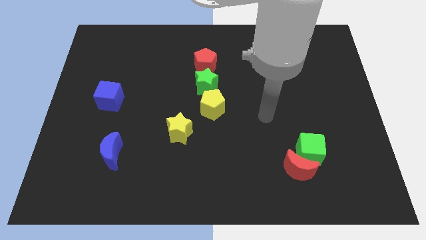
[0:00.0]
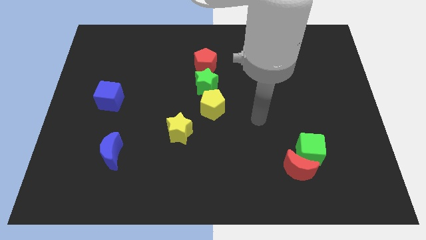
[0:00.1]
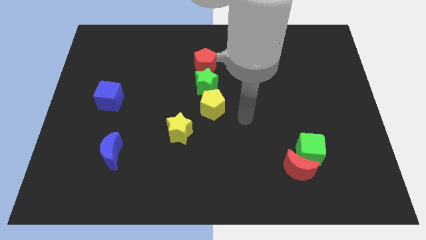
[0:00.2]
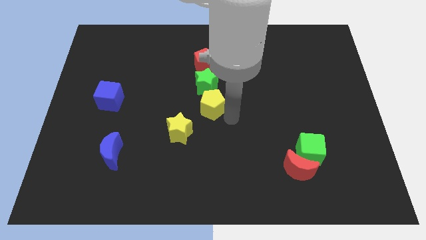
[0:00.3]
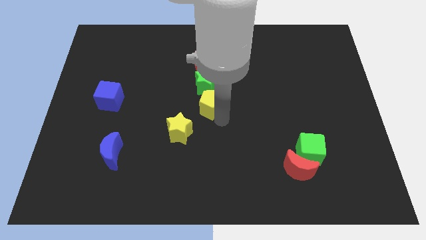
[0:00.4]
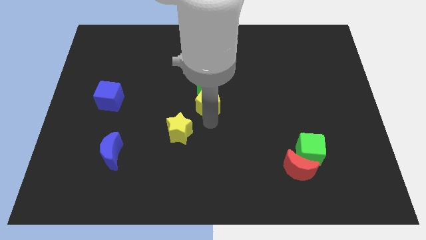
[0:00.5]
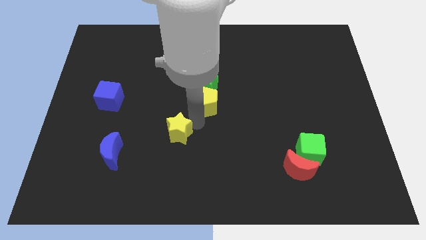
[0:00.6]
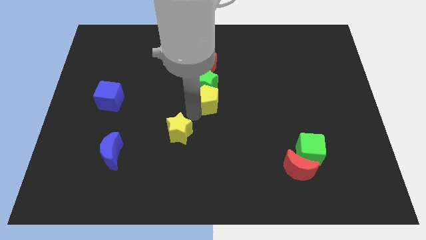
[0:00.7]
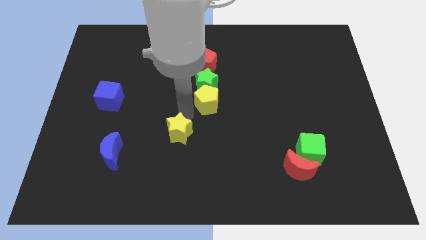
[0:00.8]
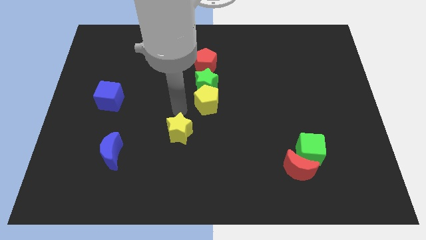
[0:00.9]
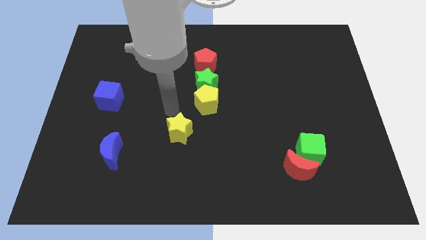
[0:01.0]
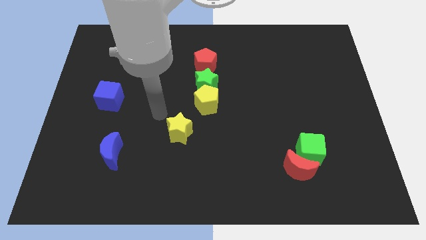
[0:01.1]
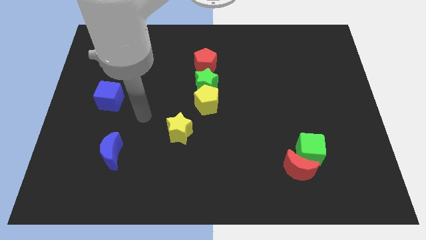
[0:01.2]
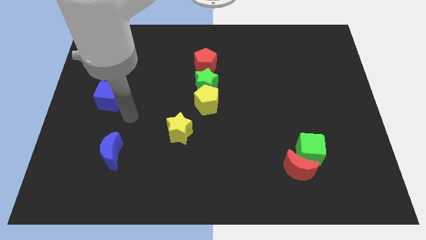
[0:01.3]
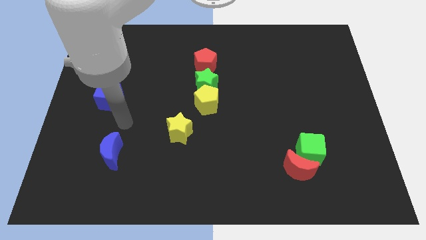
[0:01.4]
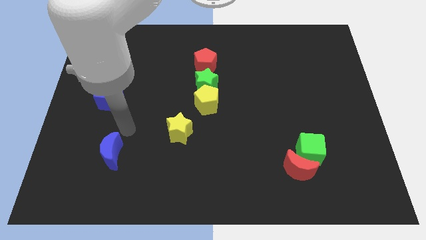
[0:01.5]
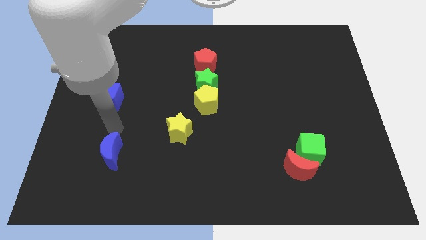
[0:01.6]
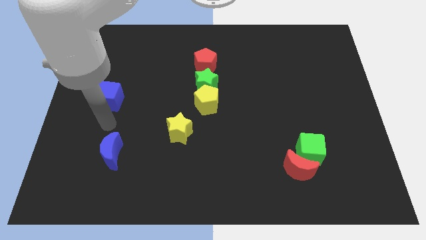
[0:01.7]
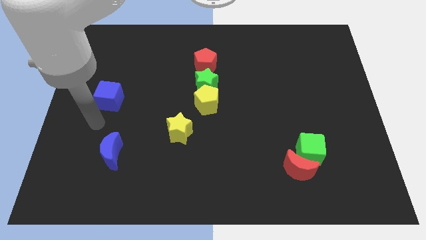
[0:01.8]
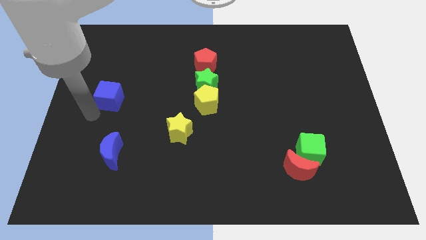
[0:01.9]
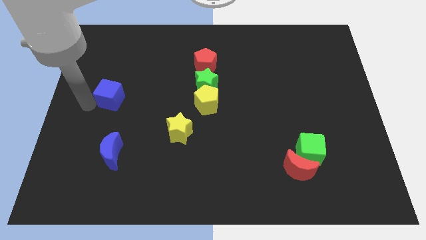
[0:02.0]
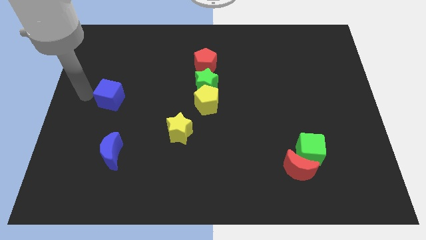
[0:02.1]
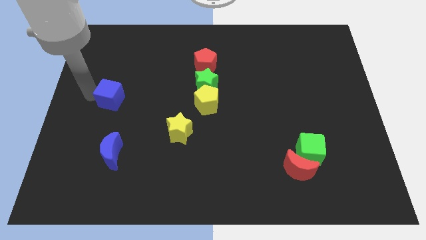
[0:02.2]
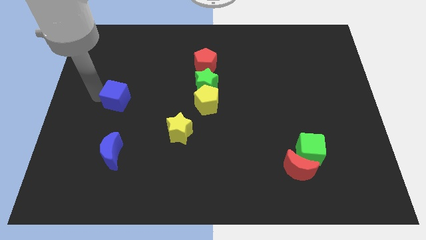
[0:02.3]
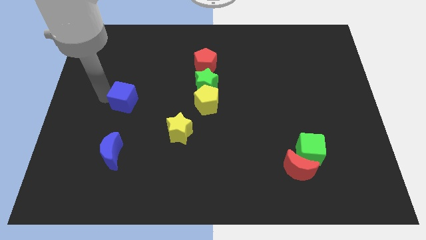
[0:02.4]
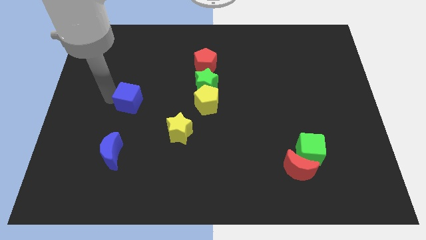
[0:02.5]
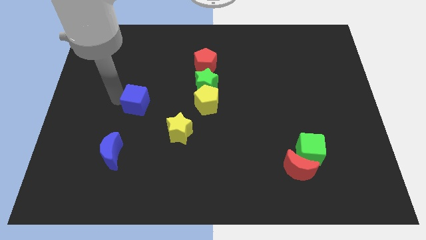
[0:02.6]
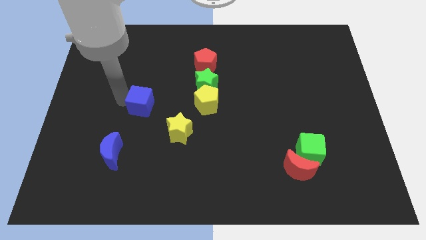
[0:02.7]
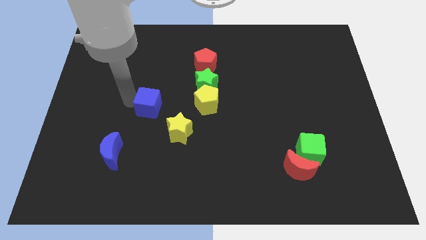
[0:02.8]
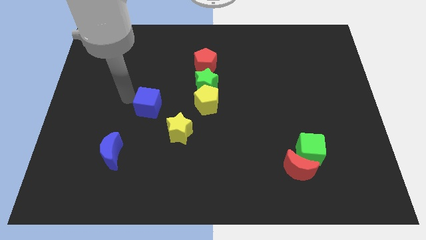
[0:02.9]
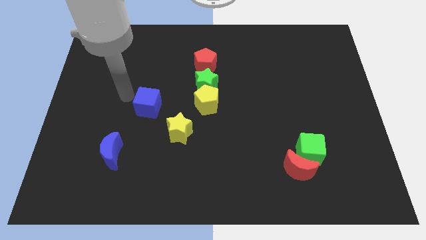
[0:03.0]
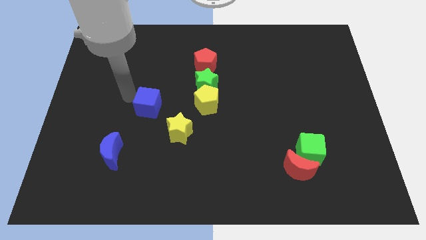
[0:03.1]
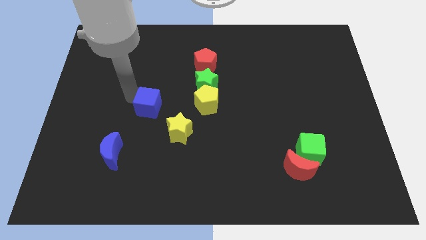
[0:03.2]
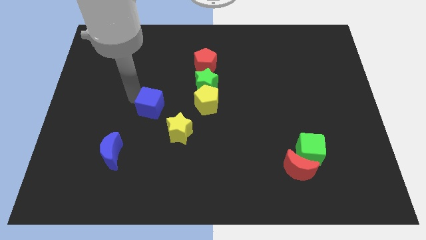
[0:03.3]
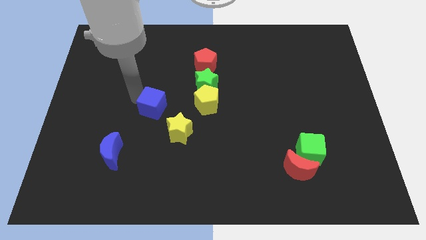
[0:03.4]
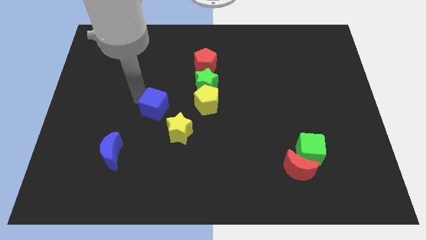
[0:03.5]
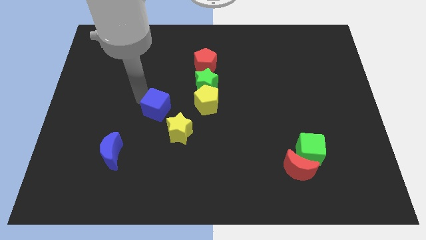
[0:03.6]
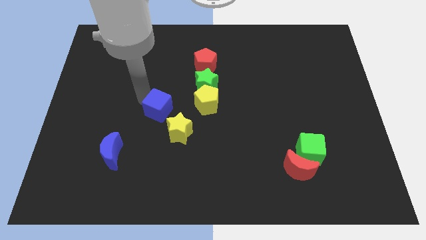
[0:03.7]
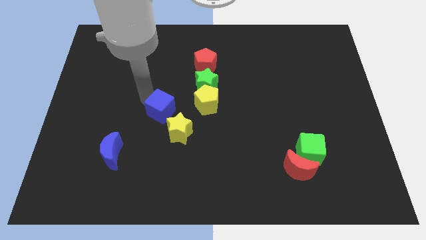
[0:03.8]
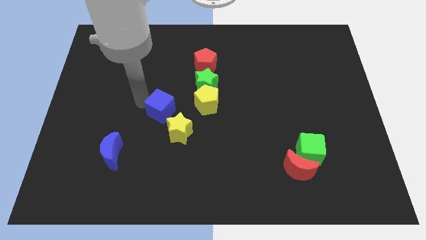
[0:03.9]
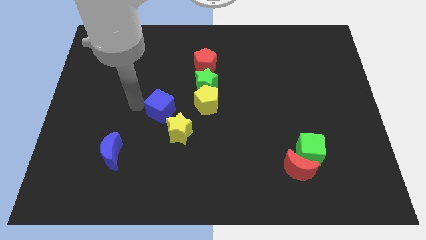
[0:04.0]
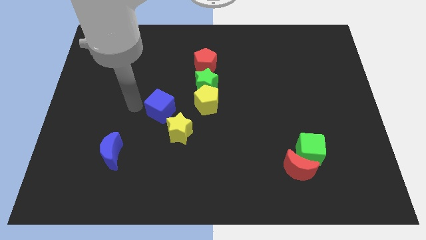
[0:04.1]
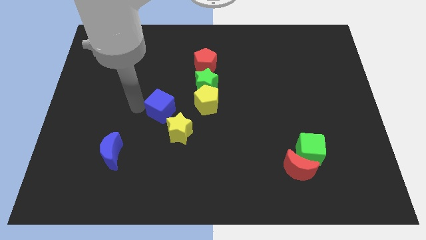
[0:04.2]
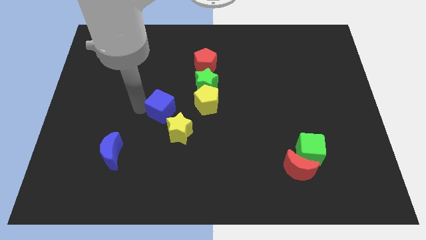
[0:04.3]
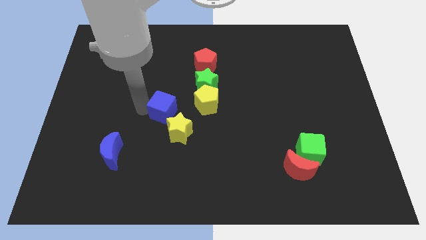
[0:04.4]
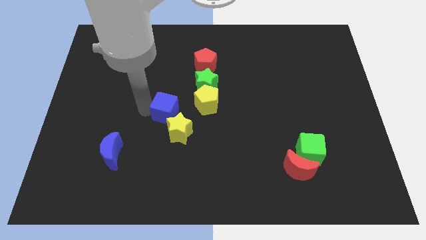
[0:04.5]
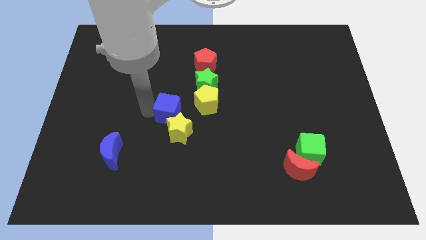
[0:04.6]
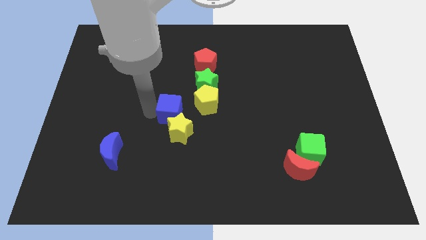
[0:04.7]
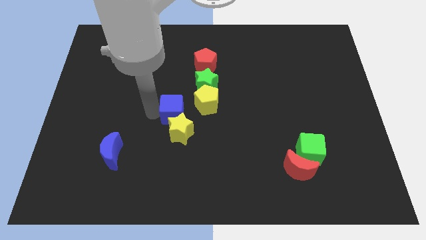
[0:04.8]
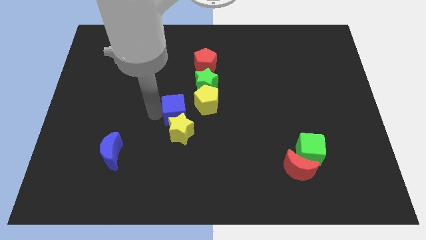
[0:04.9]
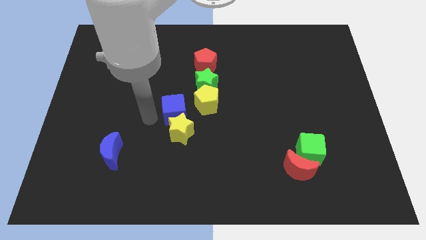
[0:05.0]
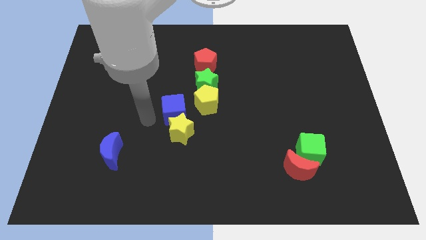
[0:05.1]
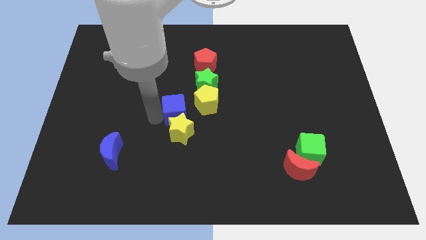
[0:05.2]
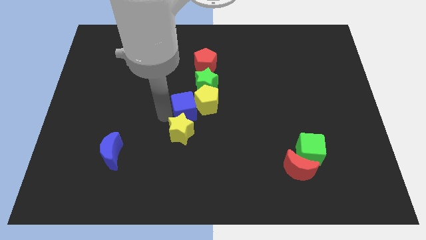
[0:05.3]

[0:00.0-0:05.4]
move the blue cube to the yellow pentagon

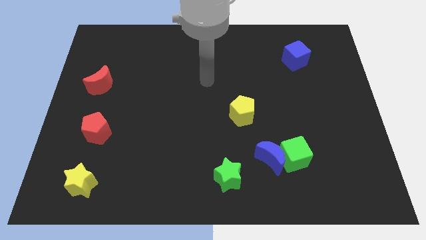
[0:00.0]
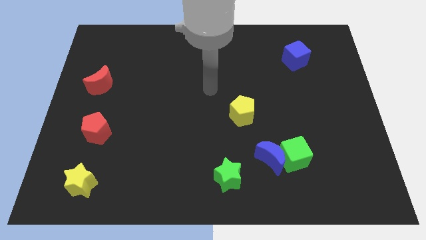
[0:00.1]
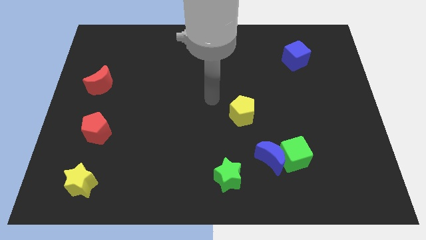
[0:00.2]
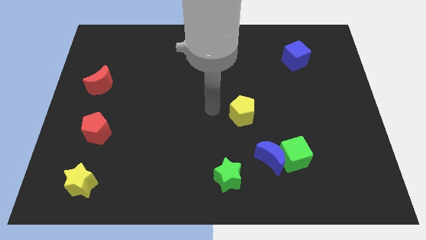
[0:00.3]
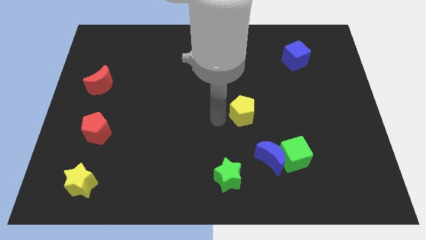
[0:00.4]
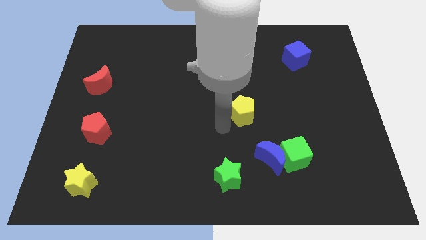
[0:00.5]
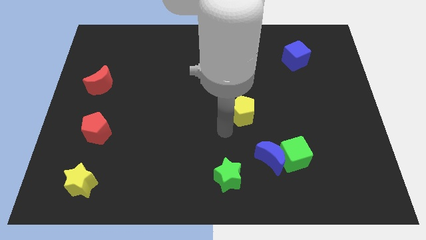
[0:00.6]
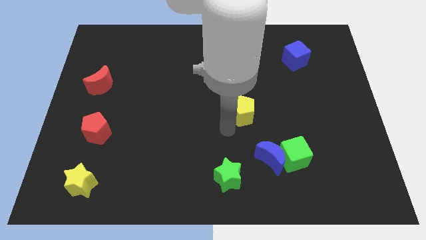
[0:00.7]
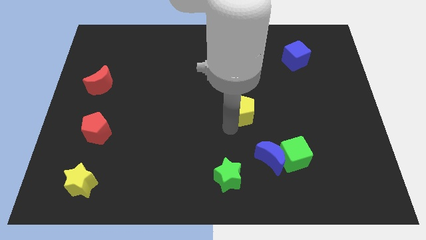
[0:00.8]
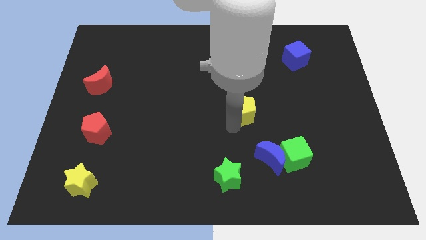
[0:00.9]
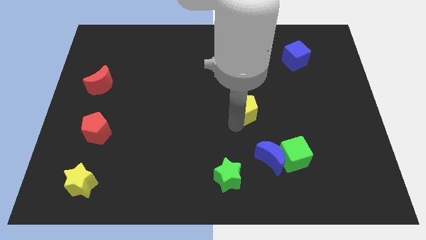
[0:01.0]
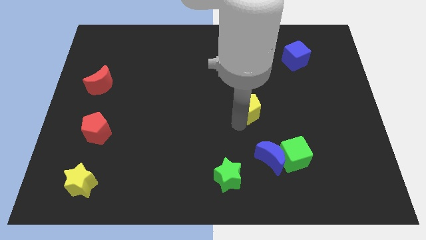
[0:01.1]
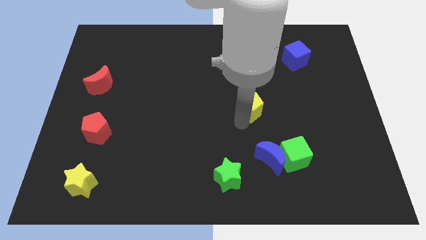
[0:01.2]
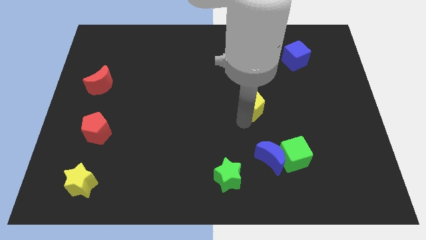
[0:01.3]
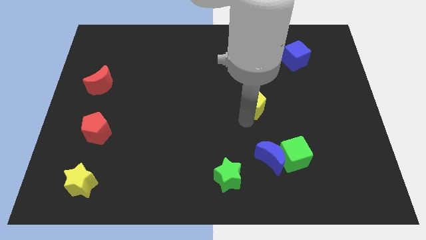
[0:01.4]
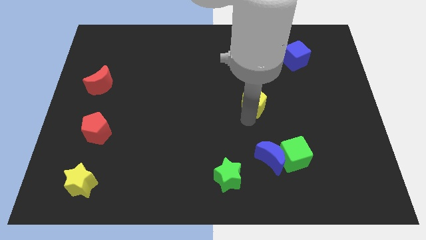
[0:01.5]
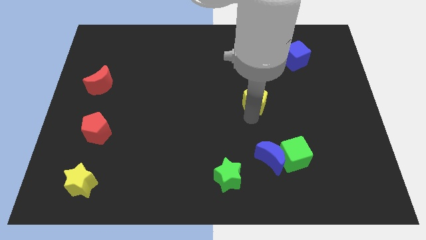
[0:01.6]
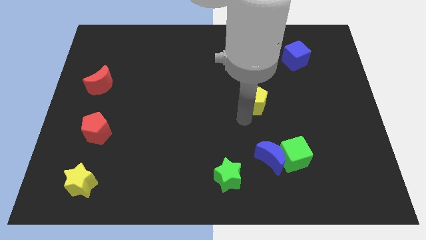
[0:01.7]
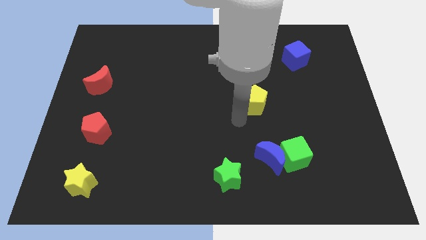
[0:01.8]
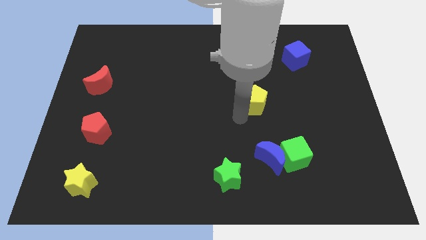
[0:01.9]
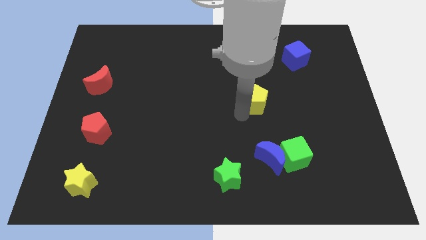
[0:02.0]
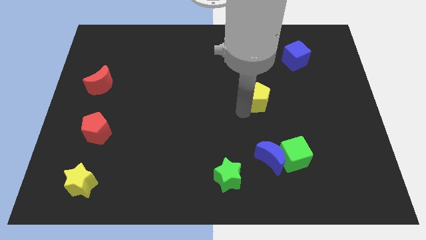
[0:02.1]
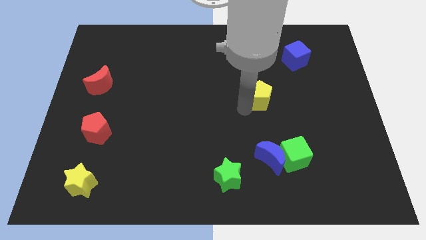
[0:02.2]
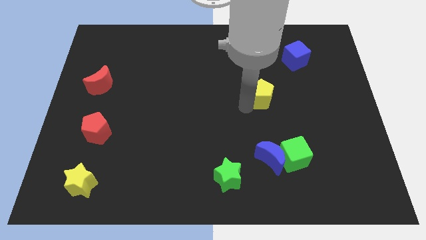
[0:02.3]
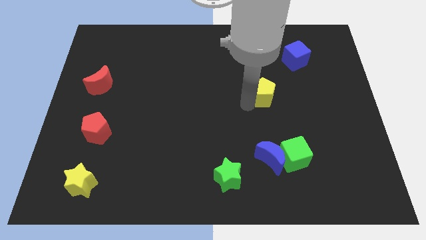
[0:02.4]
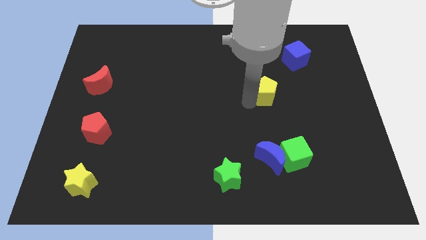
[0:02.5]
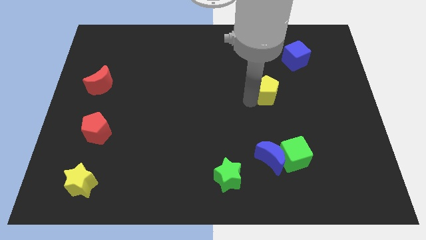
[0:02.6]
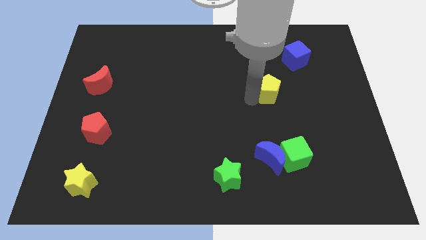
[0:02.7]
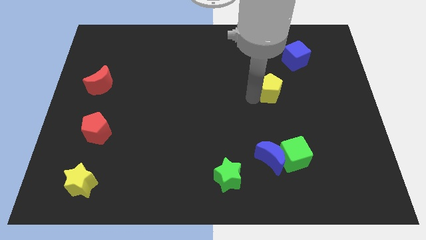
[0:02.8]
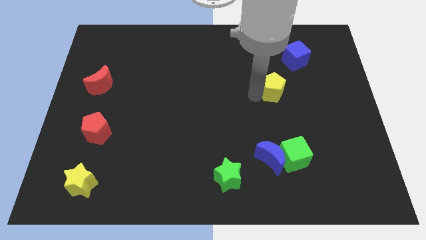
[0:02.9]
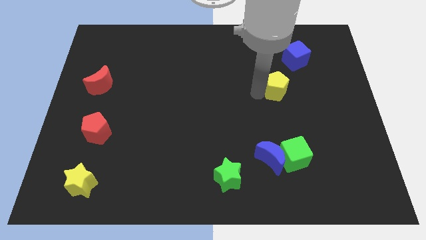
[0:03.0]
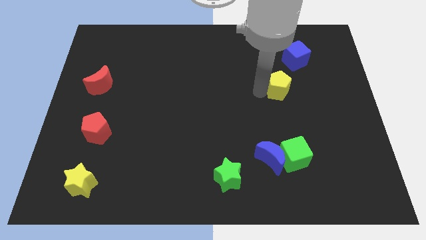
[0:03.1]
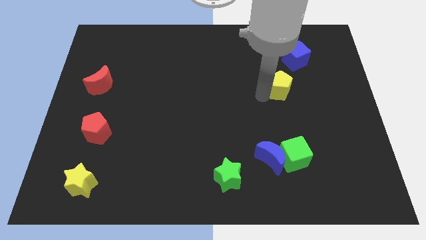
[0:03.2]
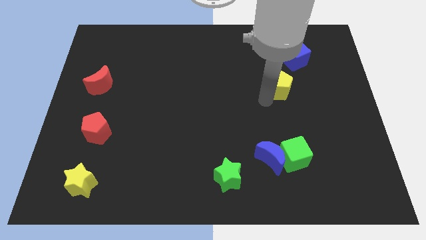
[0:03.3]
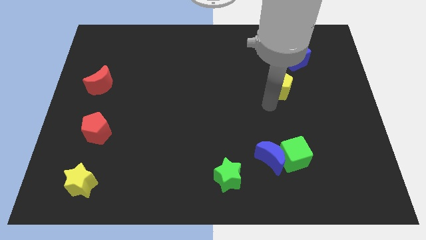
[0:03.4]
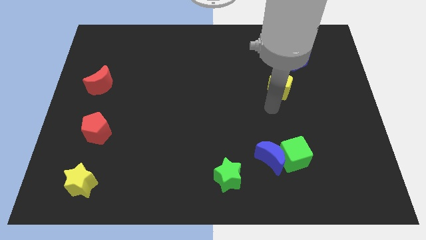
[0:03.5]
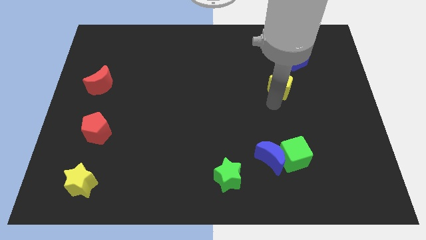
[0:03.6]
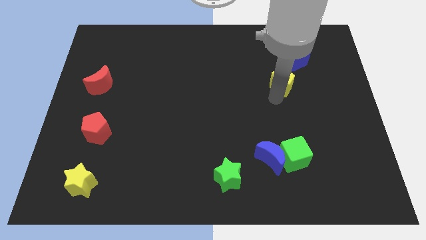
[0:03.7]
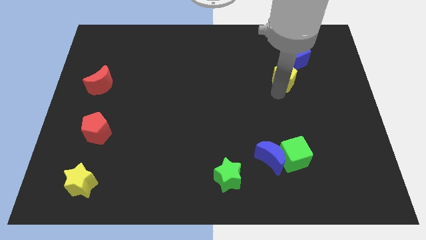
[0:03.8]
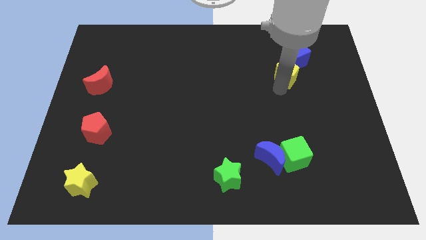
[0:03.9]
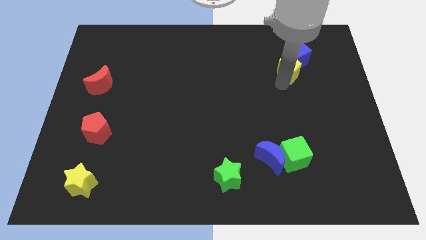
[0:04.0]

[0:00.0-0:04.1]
push the yellow pentagon close to the blue cube
